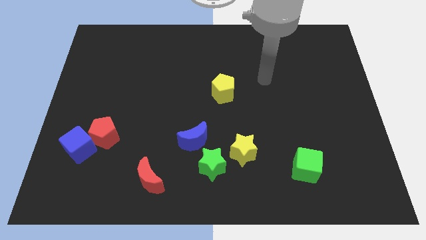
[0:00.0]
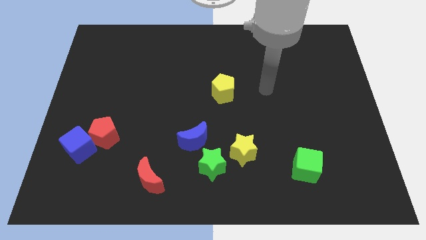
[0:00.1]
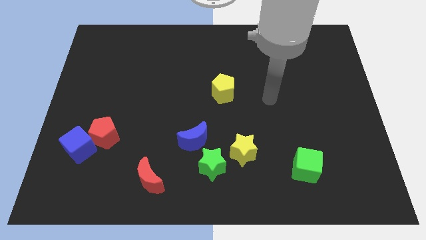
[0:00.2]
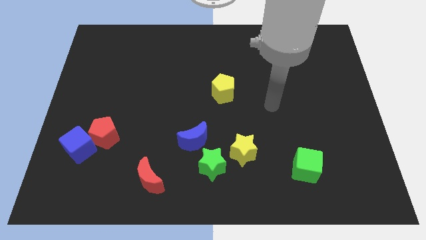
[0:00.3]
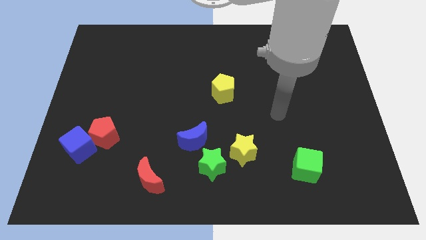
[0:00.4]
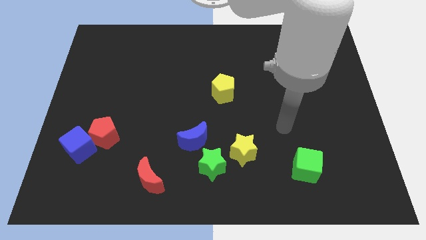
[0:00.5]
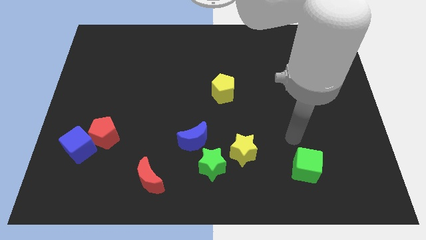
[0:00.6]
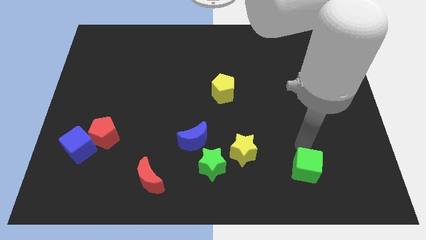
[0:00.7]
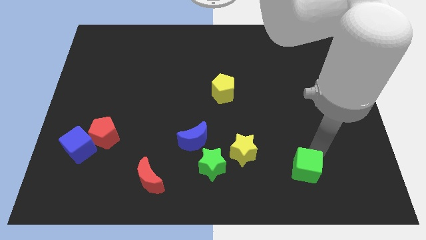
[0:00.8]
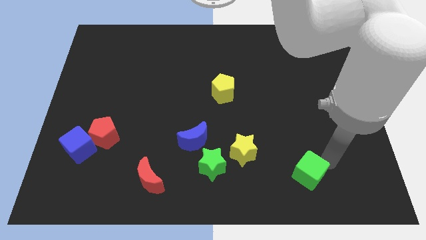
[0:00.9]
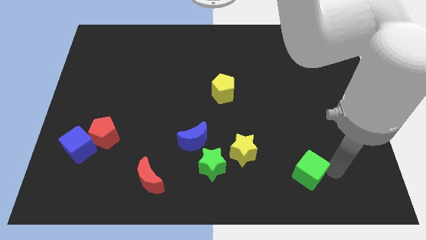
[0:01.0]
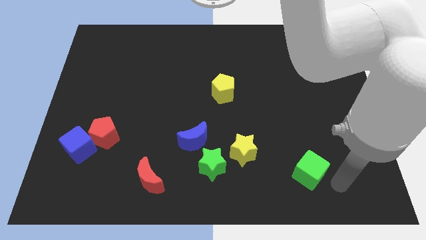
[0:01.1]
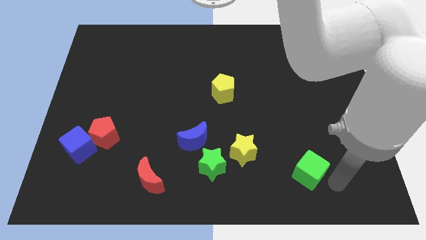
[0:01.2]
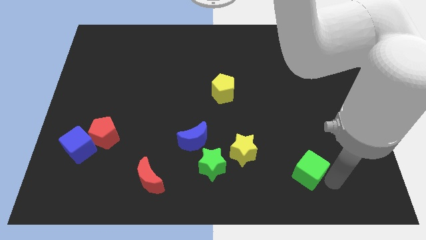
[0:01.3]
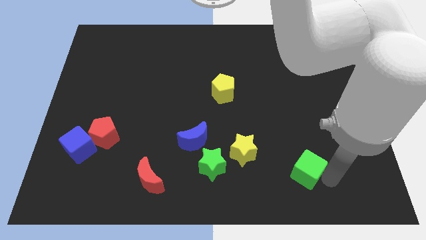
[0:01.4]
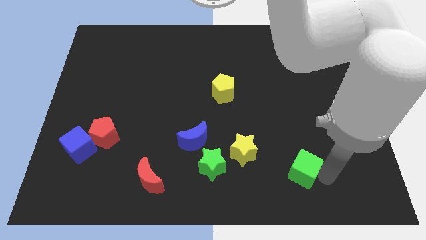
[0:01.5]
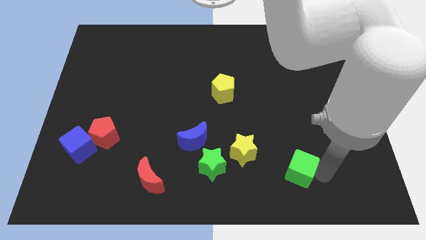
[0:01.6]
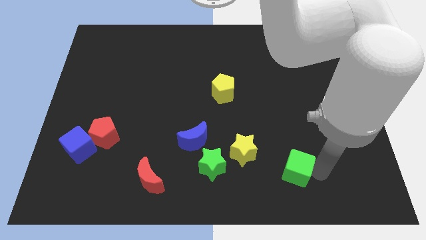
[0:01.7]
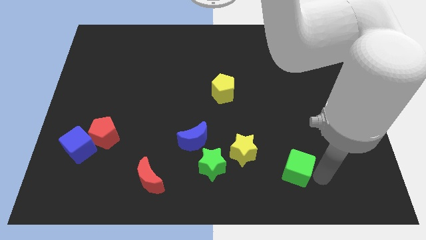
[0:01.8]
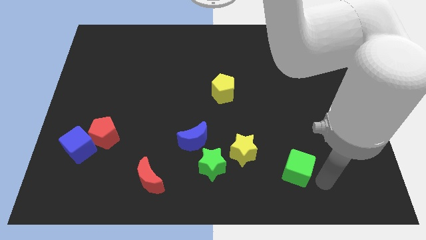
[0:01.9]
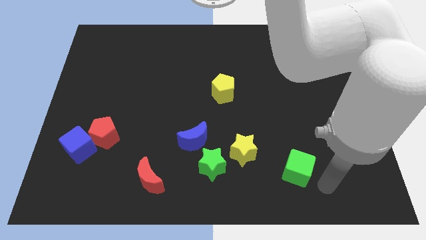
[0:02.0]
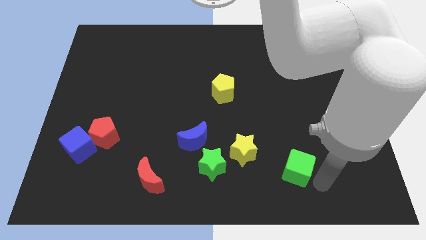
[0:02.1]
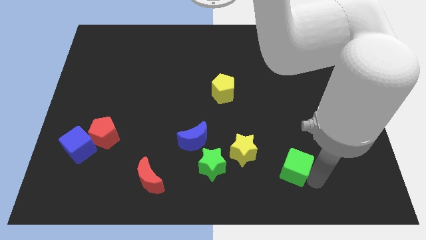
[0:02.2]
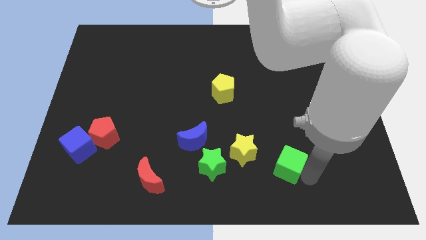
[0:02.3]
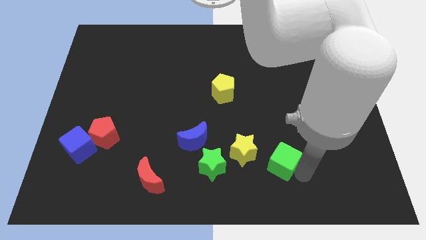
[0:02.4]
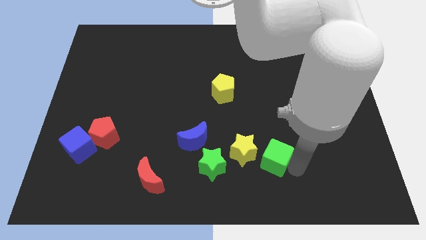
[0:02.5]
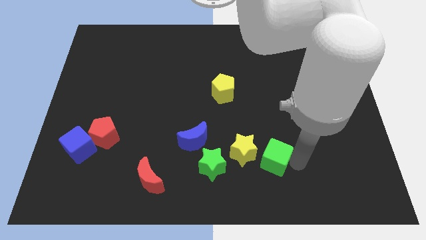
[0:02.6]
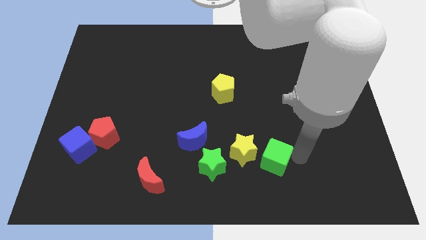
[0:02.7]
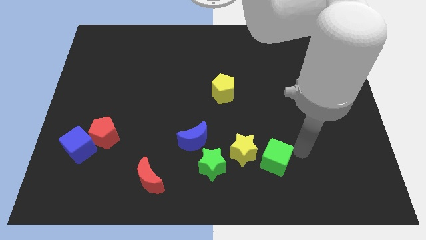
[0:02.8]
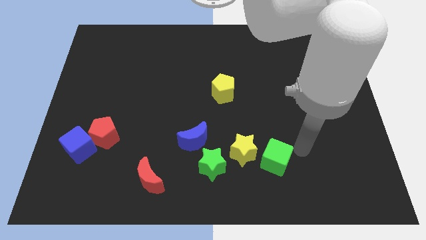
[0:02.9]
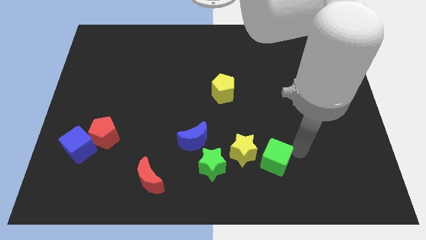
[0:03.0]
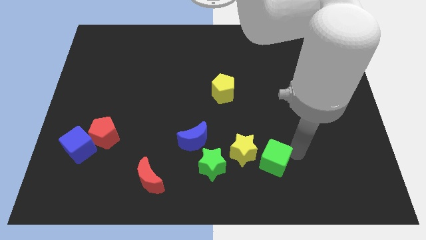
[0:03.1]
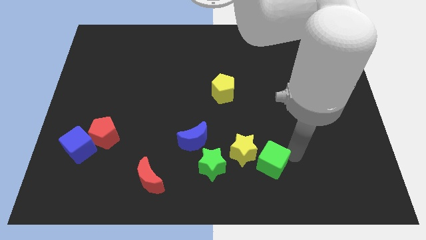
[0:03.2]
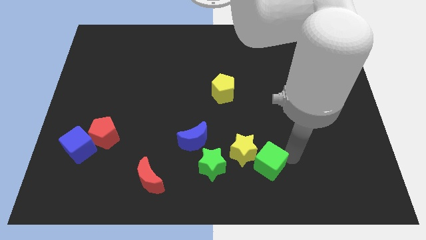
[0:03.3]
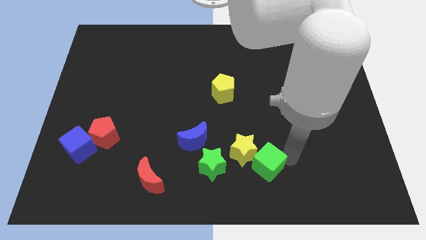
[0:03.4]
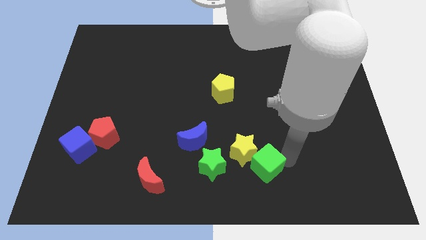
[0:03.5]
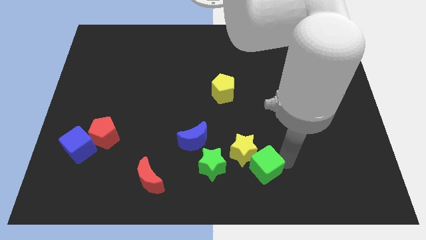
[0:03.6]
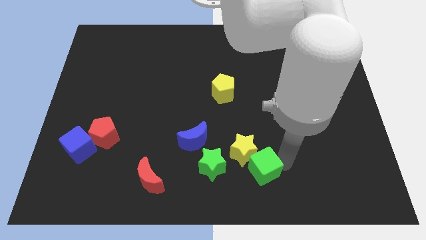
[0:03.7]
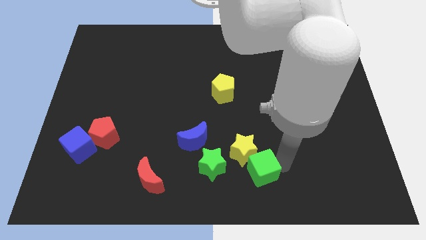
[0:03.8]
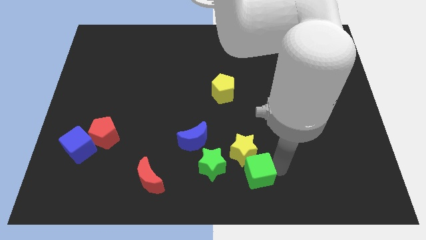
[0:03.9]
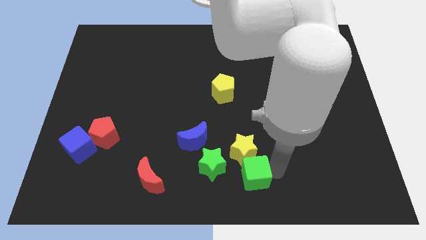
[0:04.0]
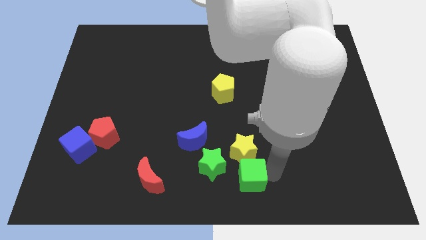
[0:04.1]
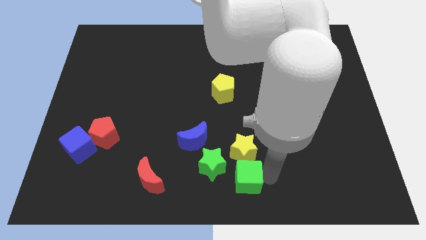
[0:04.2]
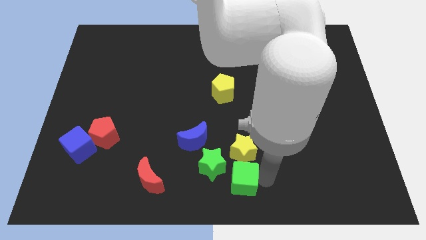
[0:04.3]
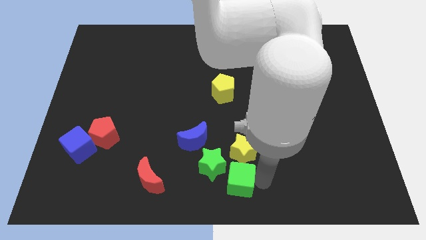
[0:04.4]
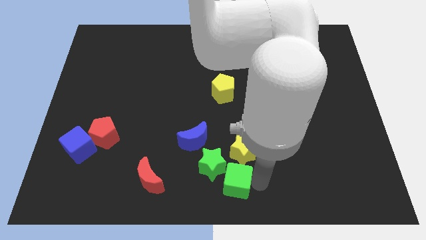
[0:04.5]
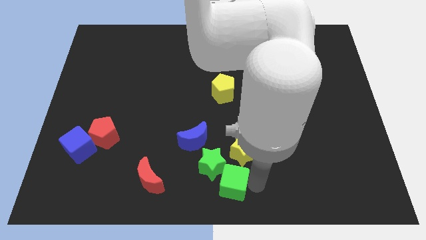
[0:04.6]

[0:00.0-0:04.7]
move the green cube close to the green star

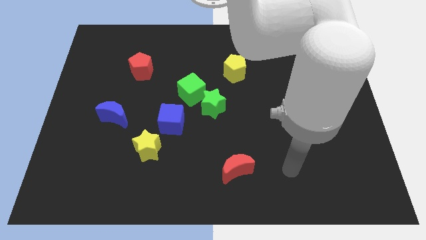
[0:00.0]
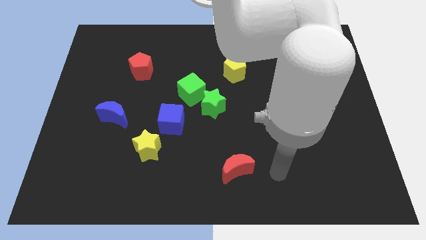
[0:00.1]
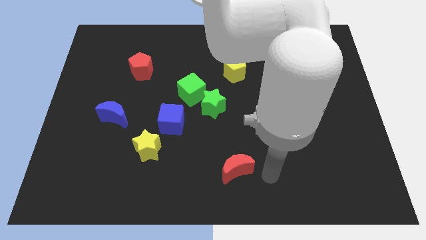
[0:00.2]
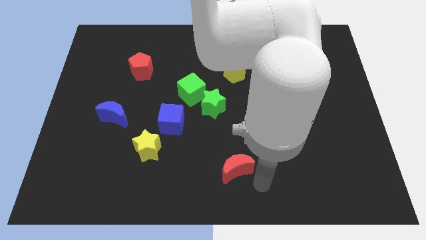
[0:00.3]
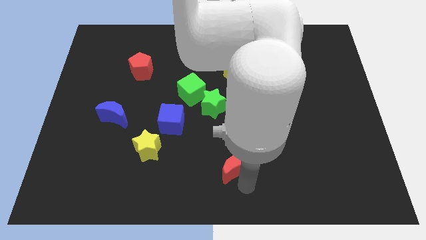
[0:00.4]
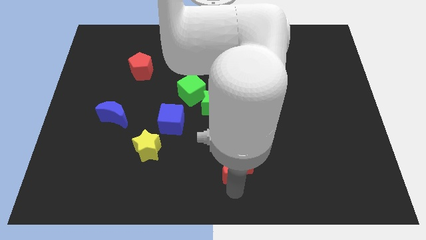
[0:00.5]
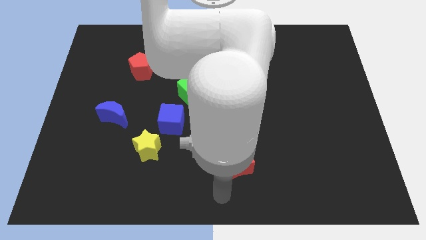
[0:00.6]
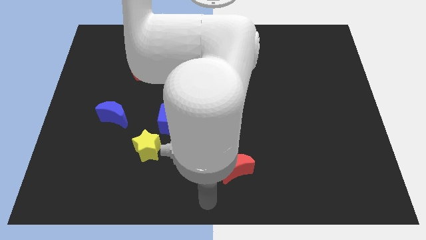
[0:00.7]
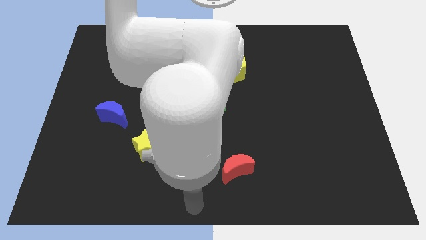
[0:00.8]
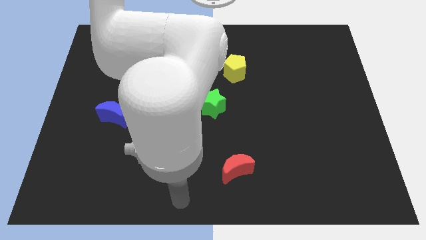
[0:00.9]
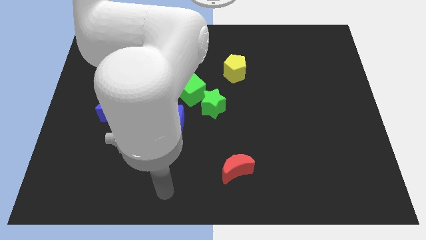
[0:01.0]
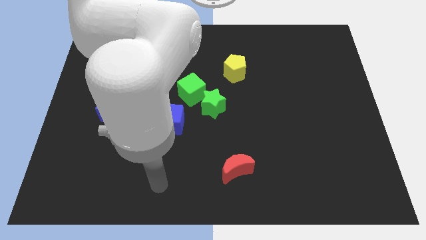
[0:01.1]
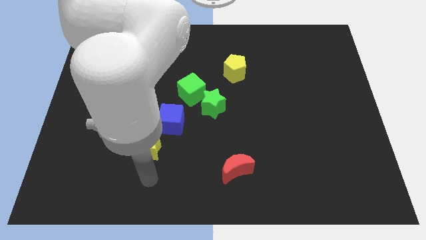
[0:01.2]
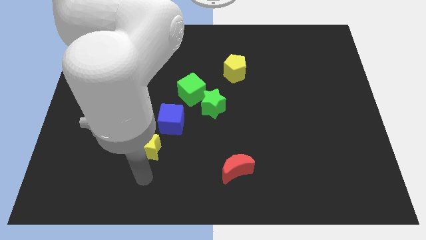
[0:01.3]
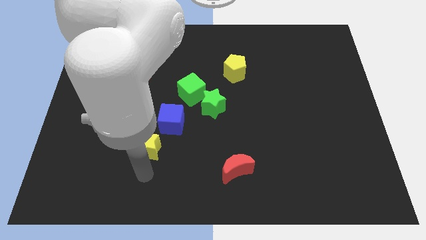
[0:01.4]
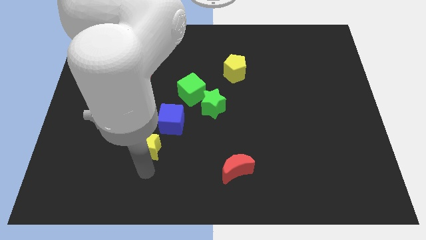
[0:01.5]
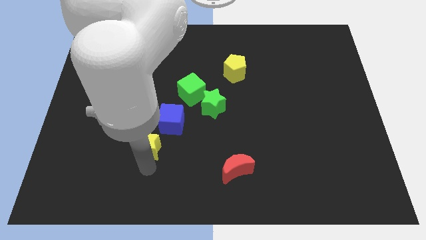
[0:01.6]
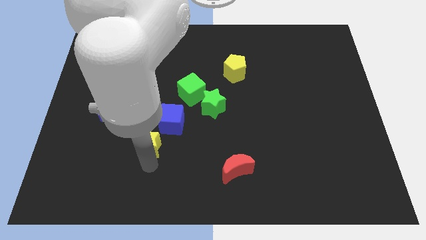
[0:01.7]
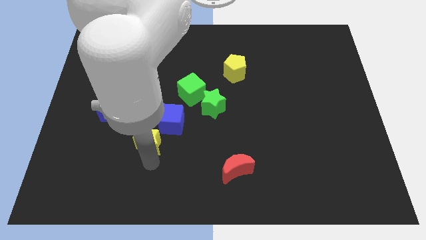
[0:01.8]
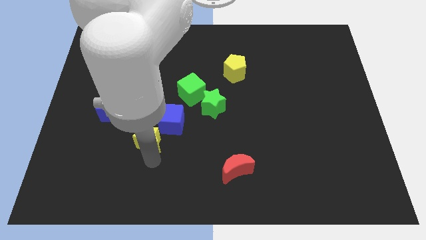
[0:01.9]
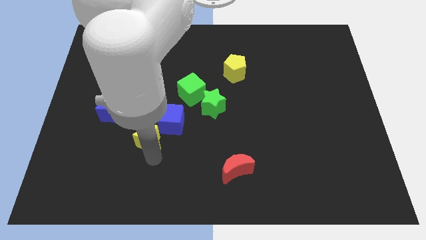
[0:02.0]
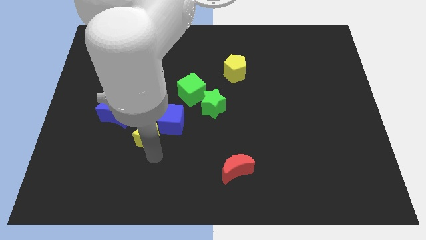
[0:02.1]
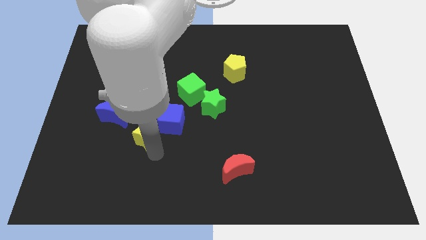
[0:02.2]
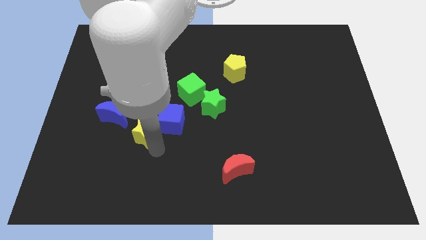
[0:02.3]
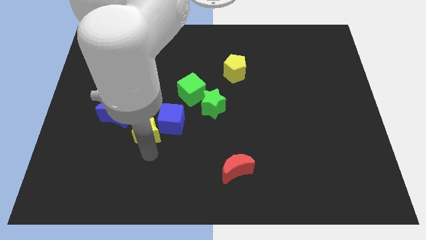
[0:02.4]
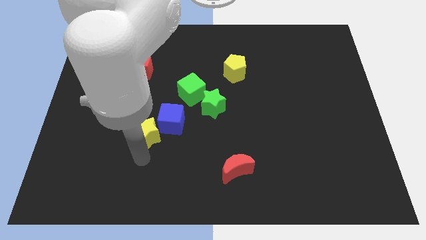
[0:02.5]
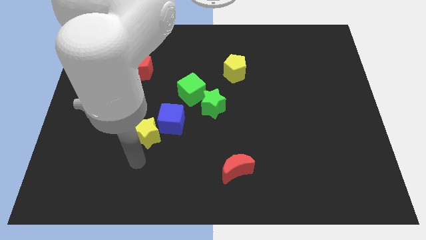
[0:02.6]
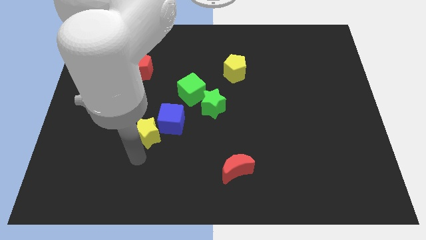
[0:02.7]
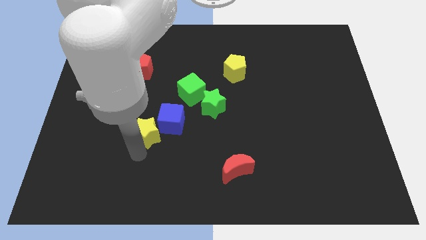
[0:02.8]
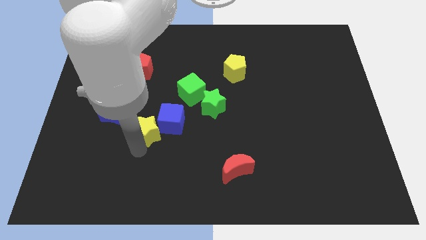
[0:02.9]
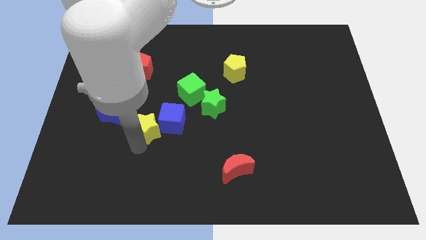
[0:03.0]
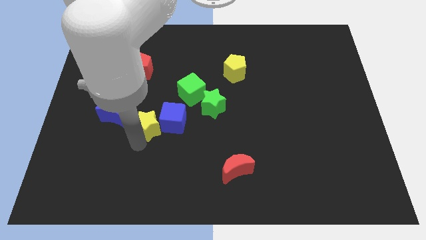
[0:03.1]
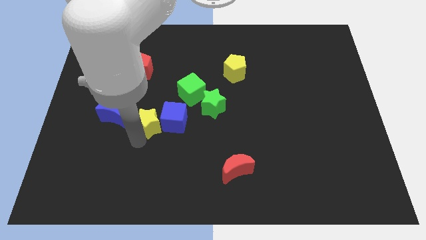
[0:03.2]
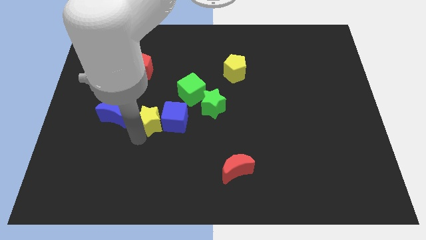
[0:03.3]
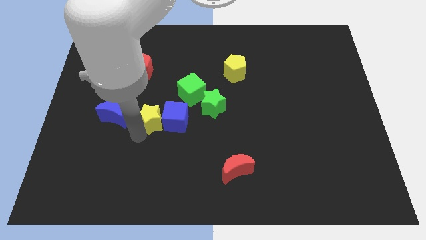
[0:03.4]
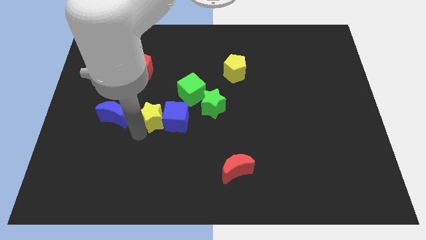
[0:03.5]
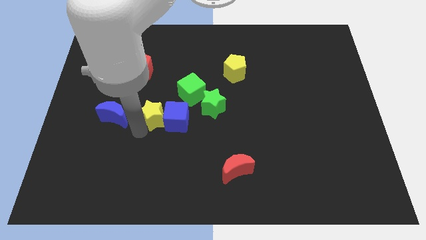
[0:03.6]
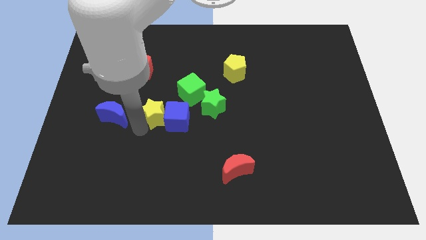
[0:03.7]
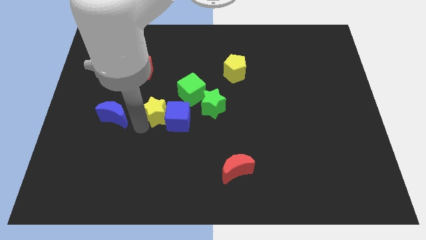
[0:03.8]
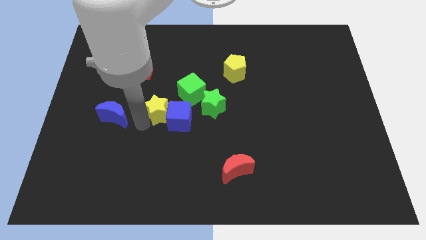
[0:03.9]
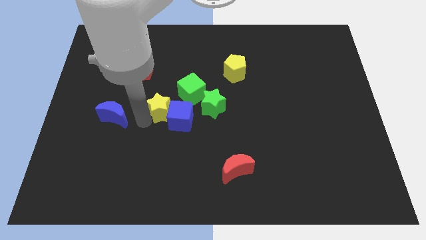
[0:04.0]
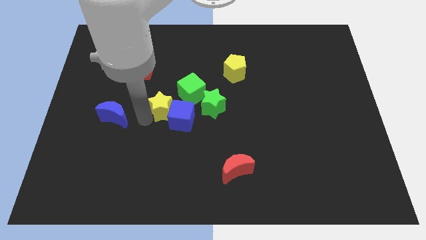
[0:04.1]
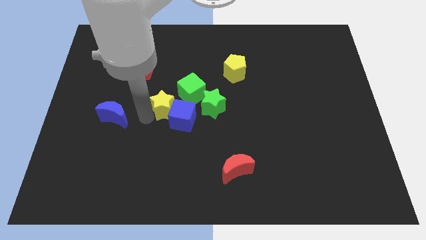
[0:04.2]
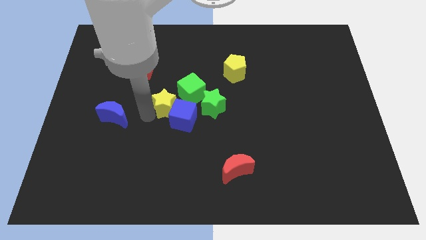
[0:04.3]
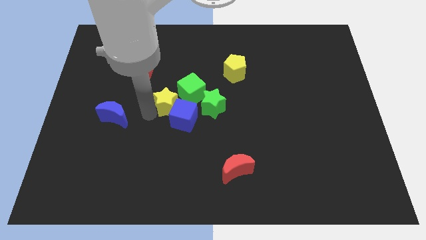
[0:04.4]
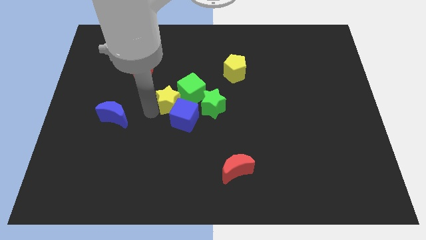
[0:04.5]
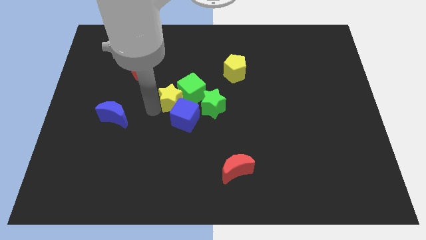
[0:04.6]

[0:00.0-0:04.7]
push the yellow star close to the green cube
